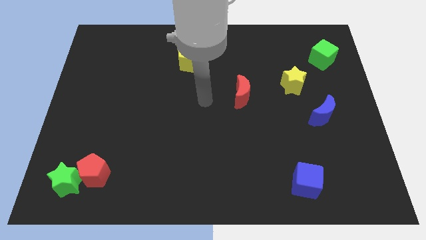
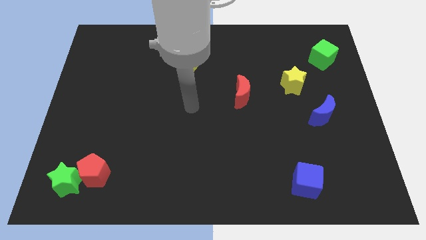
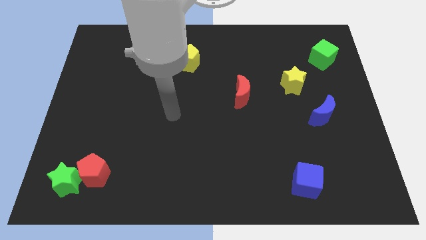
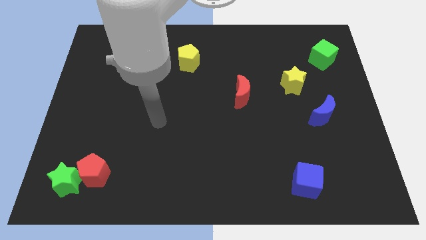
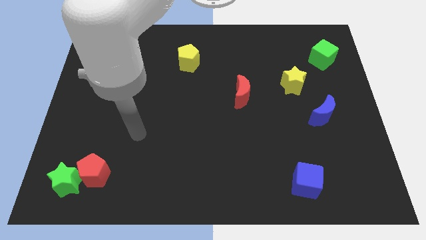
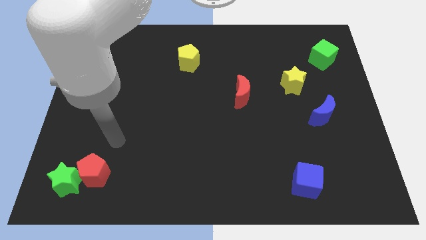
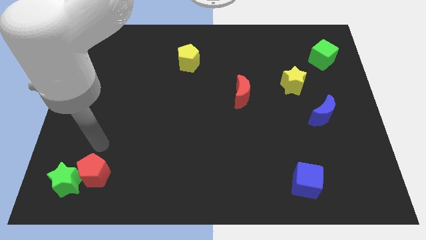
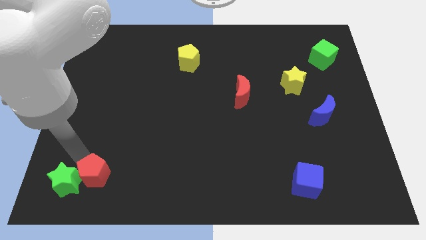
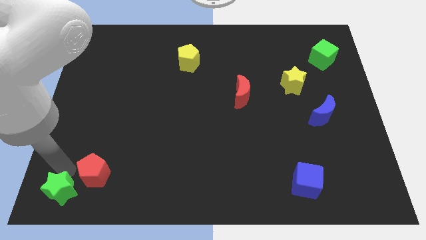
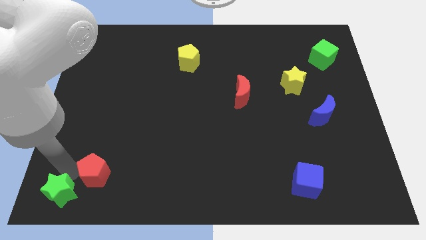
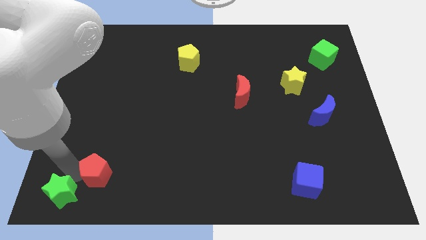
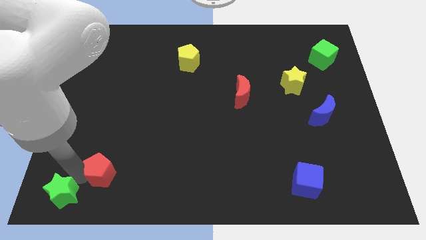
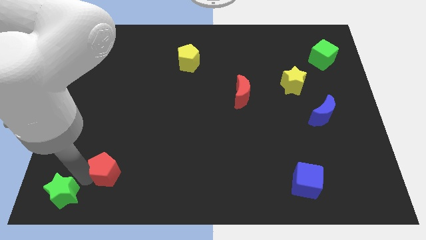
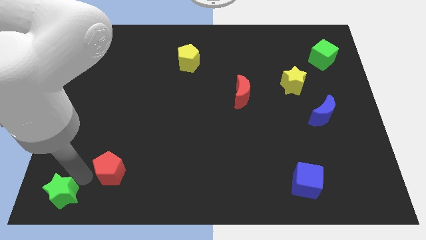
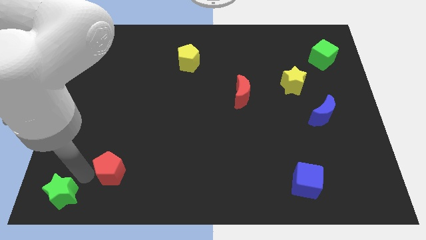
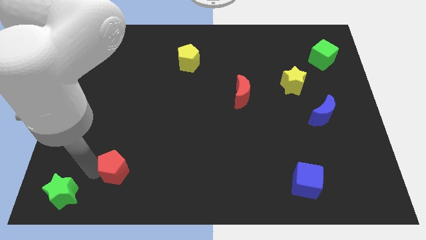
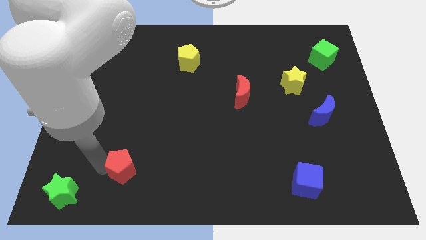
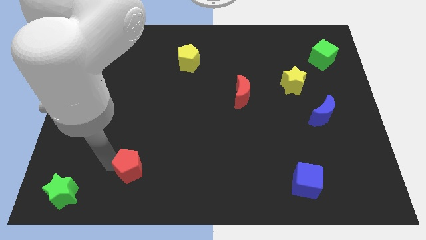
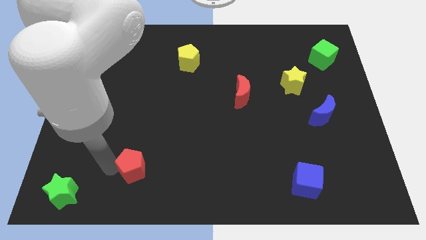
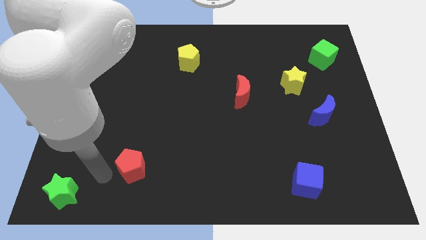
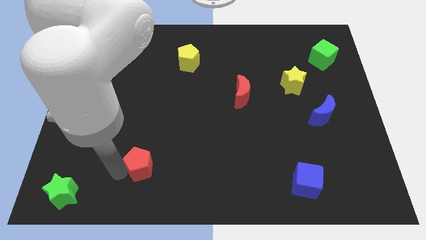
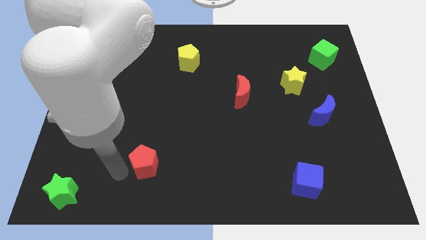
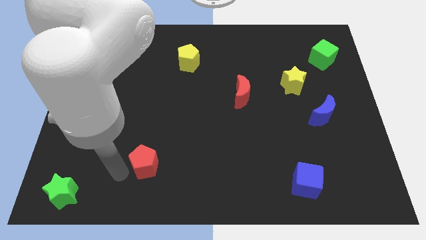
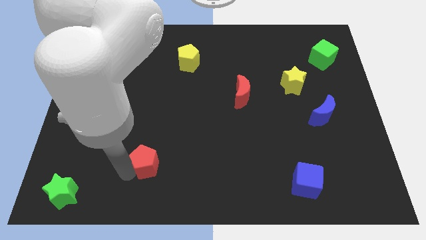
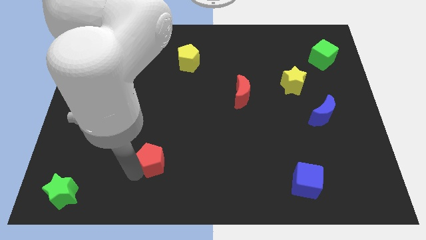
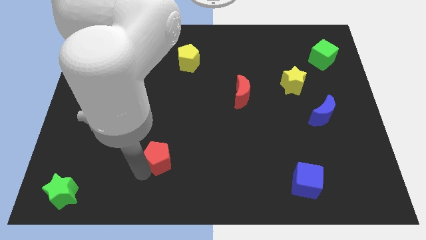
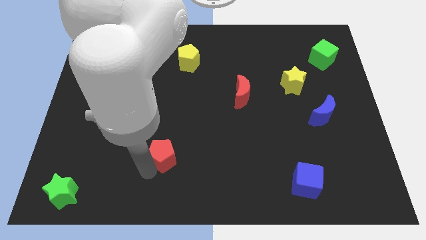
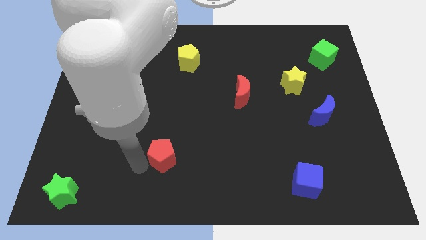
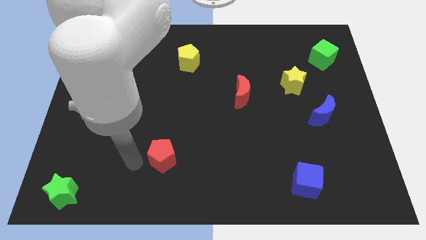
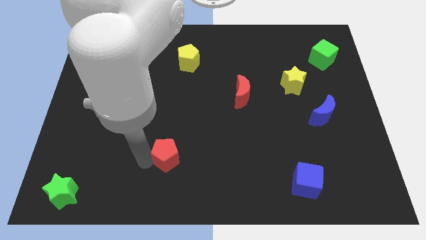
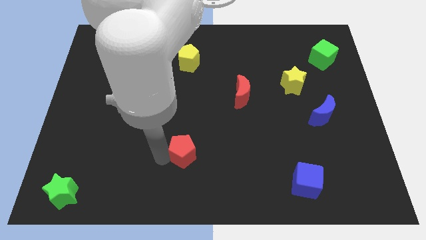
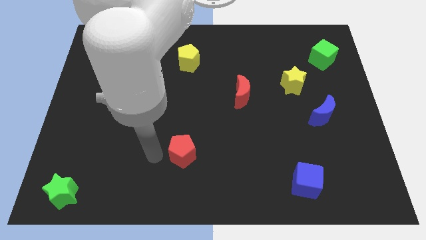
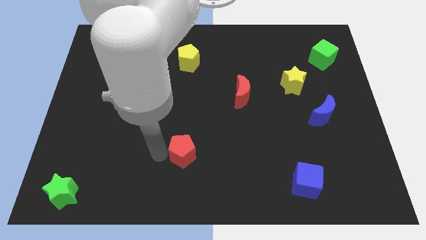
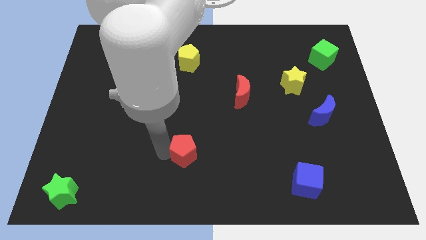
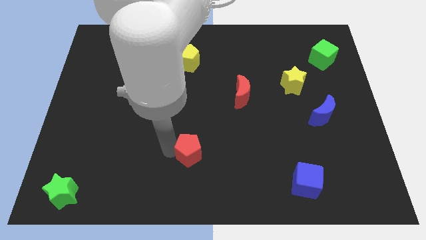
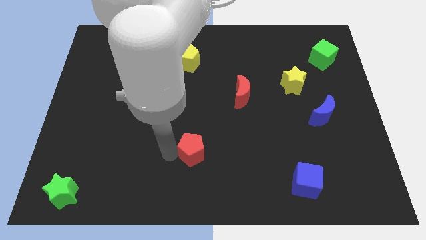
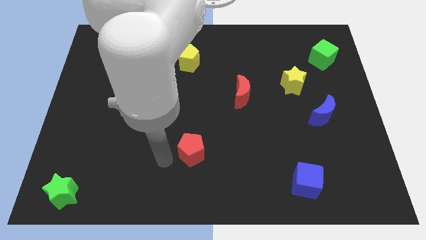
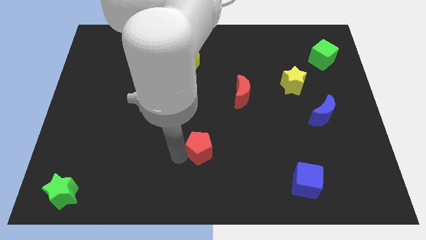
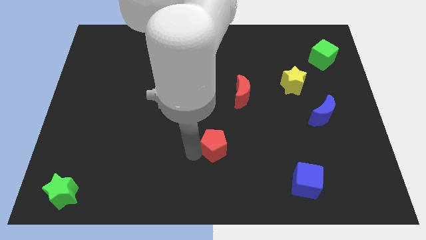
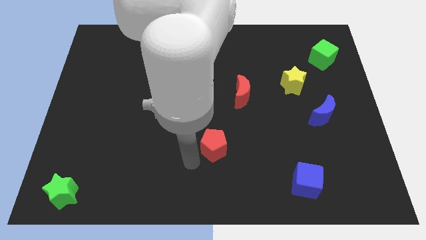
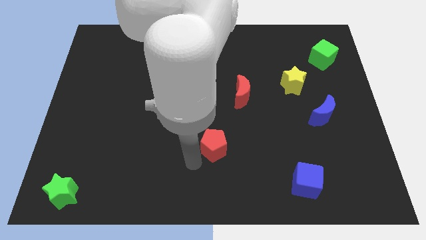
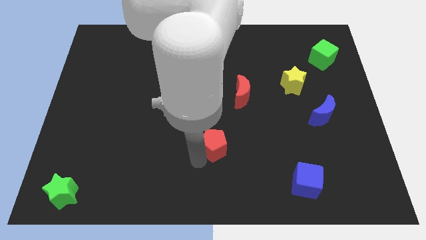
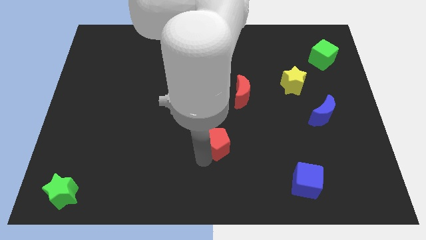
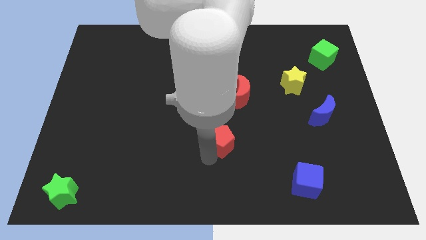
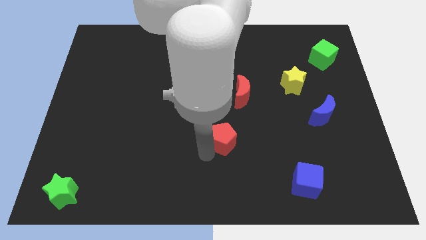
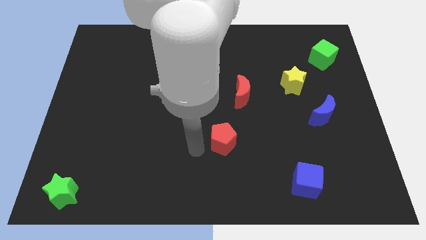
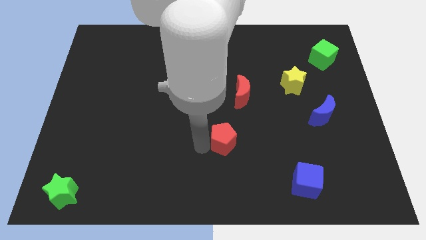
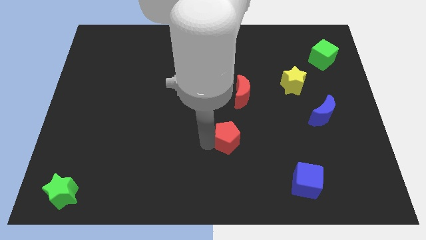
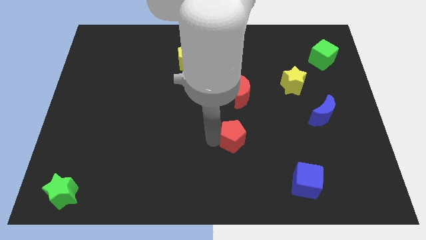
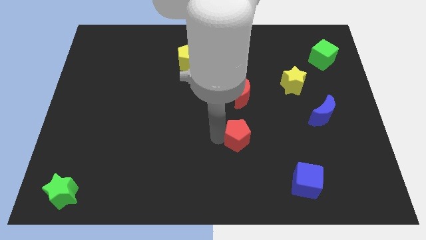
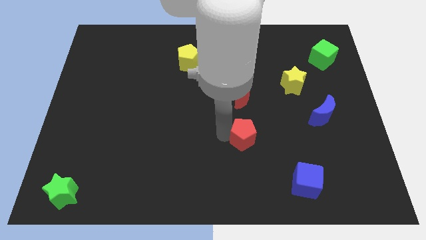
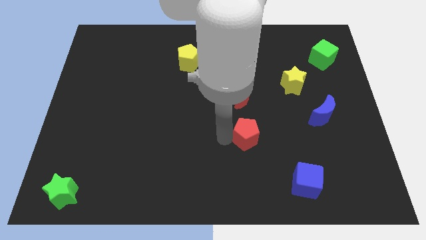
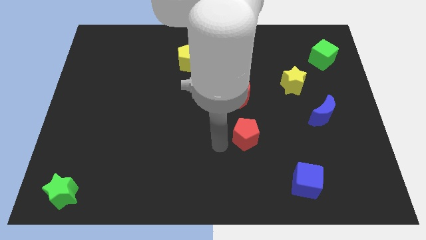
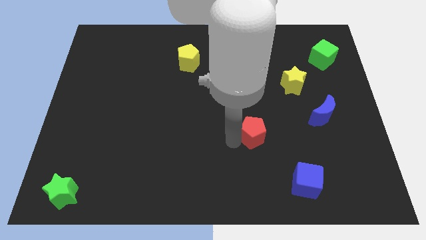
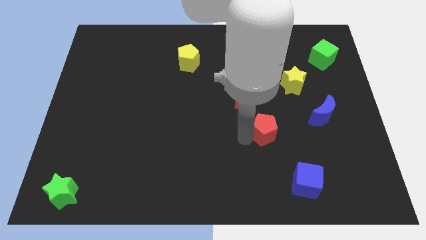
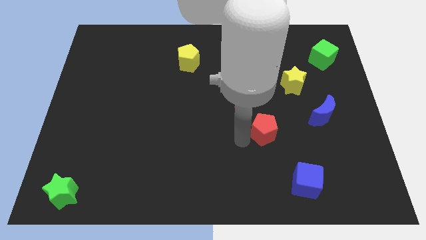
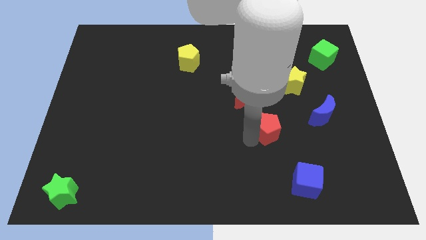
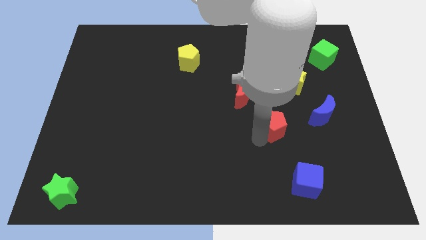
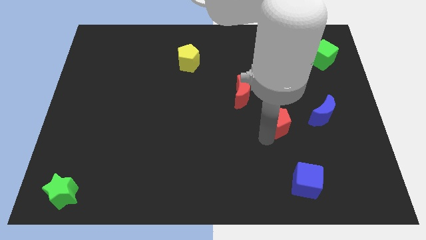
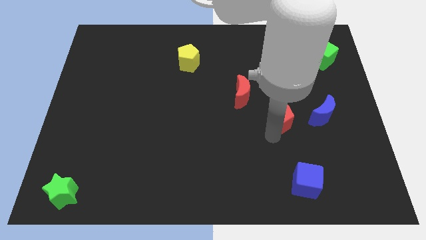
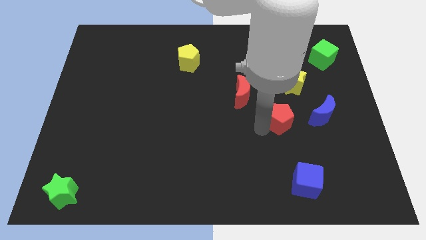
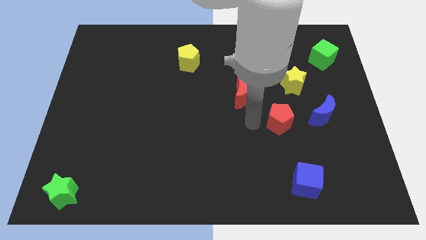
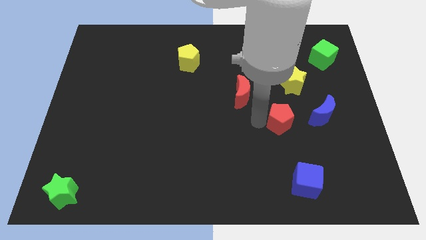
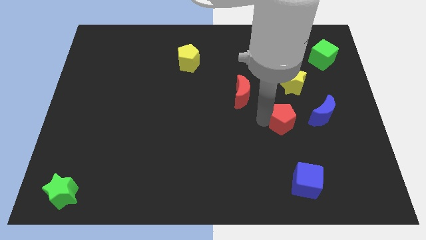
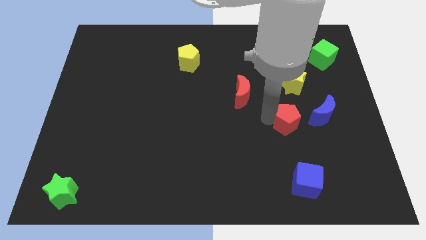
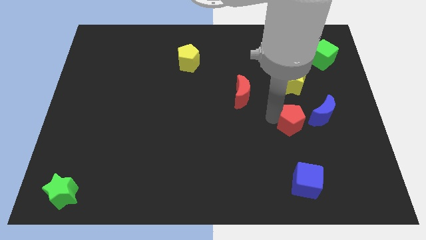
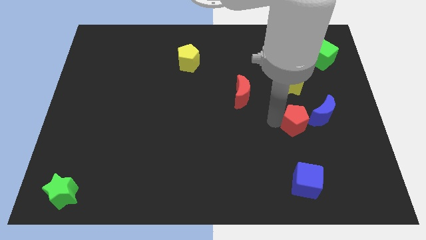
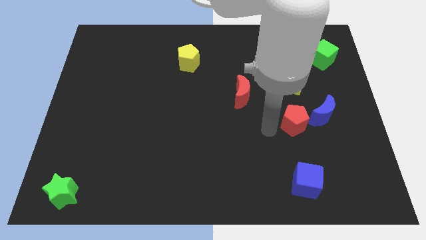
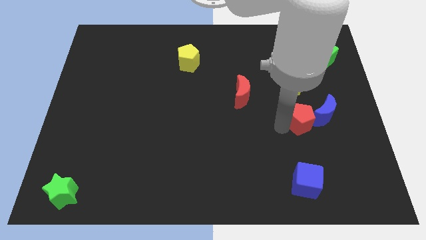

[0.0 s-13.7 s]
move the red pentagon to the blue moon

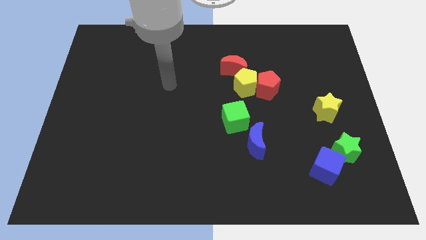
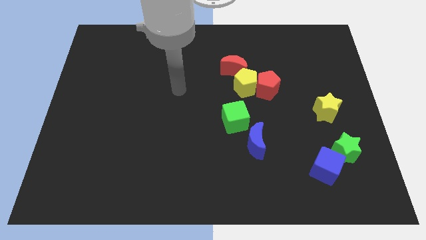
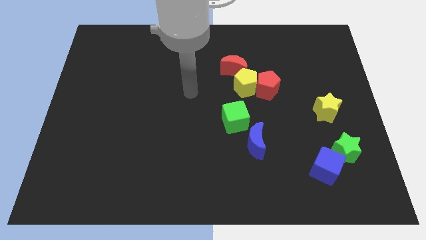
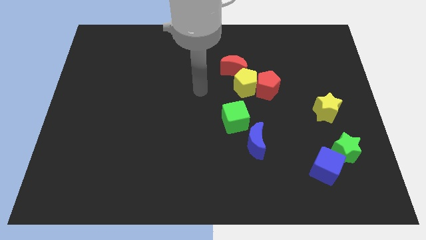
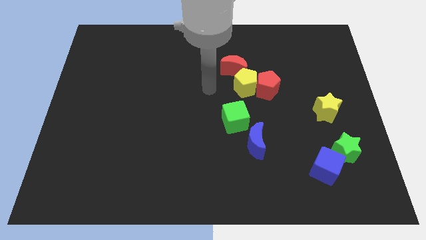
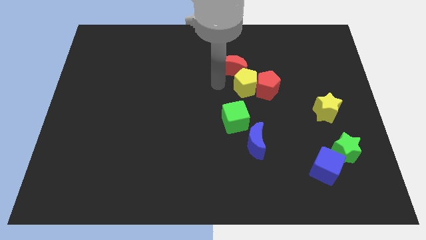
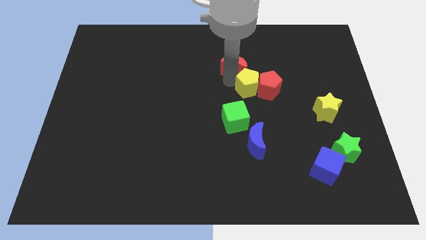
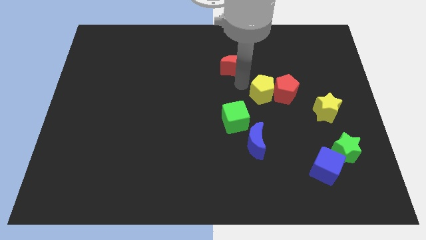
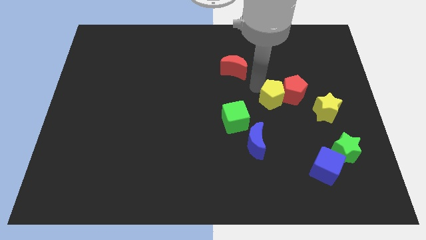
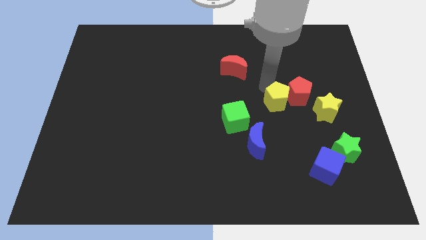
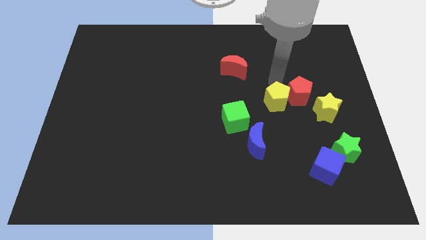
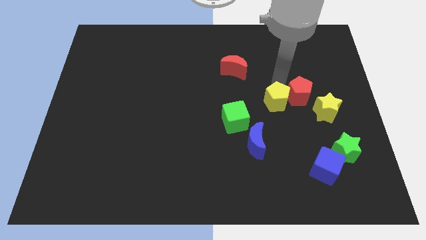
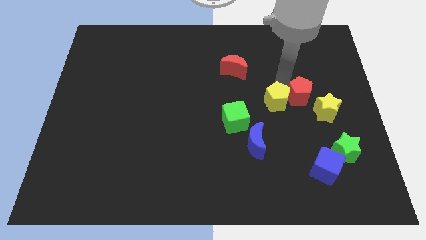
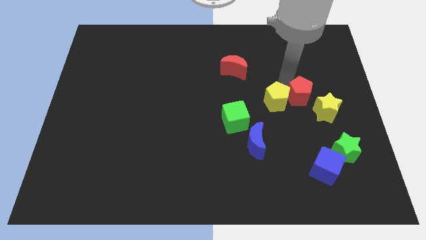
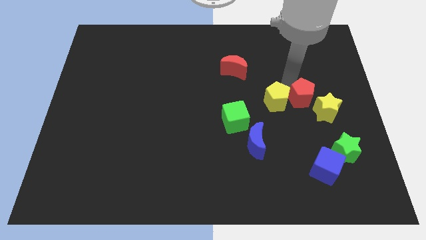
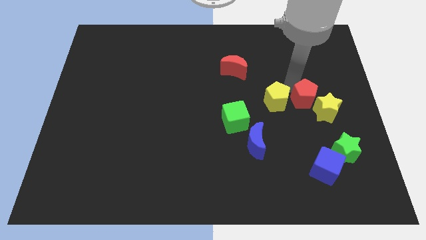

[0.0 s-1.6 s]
move the red pentagon to the yellow star
